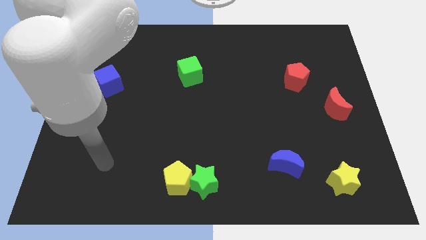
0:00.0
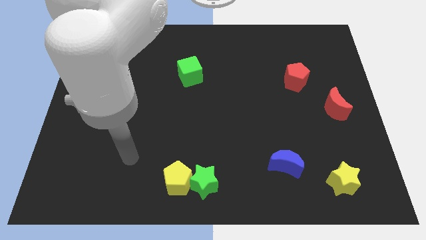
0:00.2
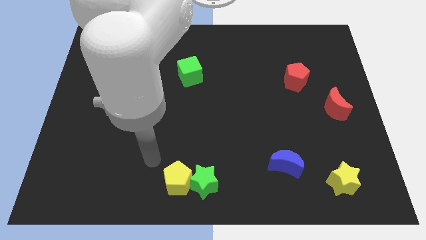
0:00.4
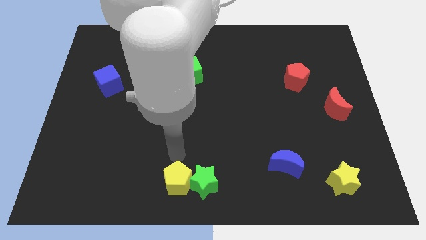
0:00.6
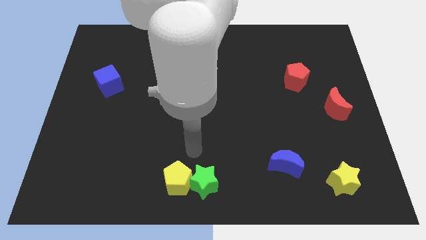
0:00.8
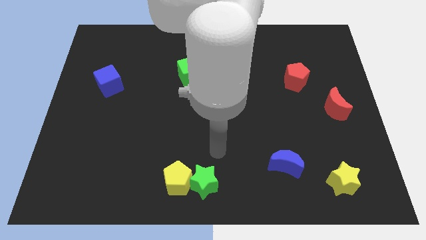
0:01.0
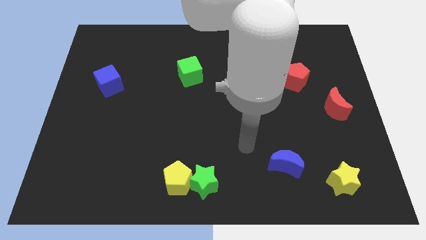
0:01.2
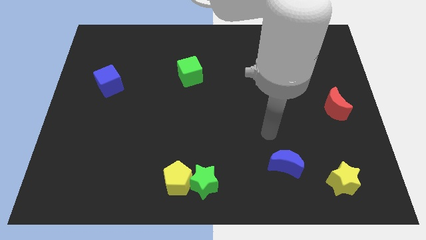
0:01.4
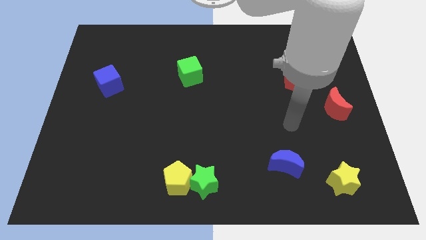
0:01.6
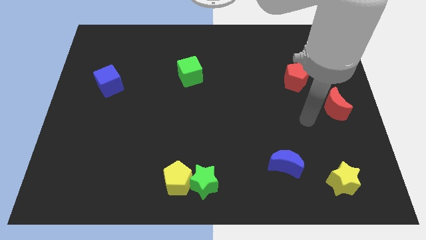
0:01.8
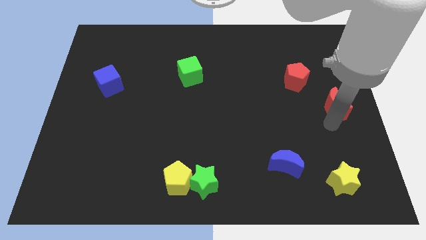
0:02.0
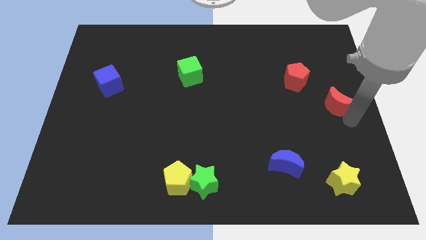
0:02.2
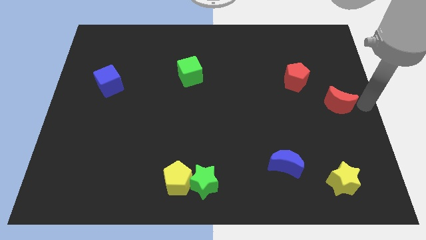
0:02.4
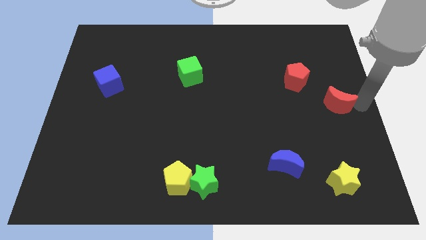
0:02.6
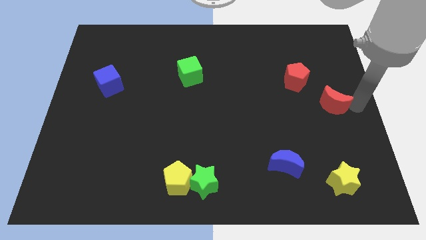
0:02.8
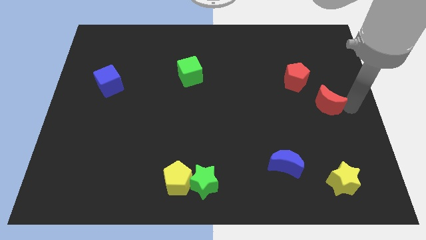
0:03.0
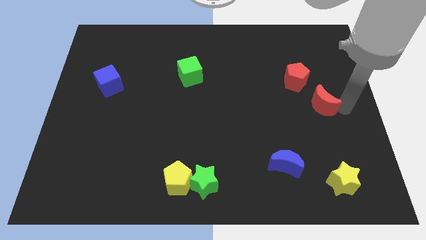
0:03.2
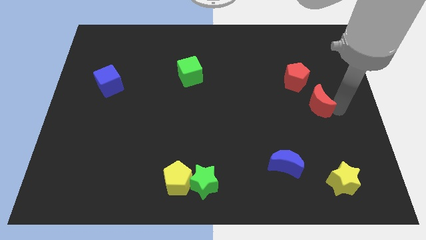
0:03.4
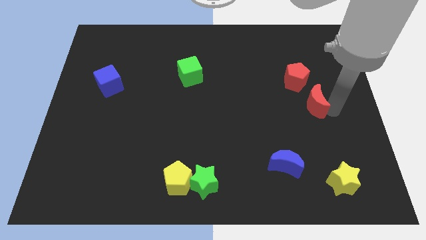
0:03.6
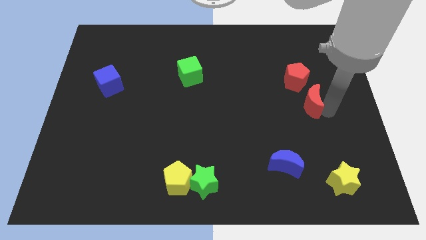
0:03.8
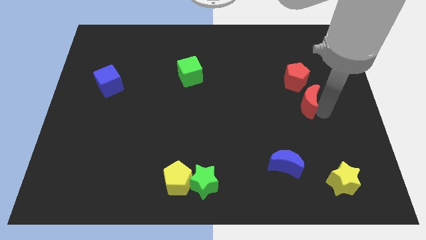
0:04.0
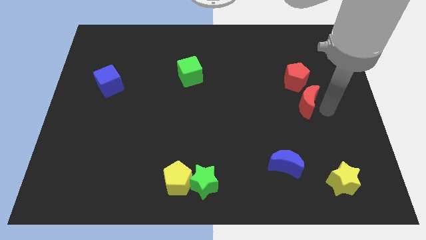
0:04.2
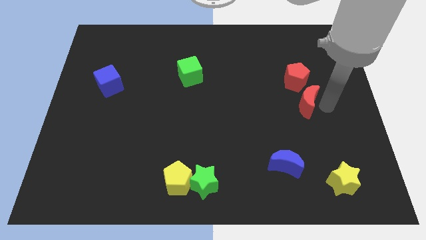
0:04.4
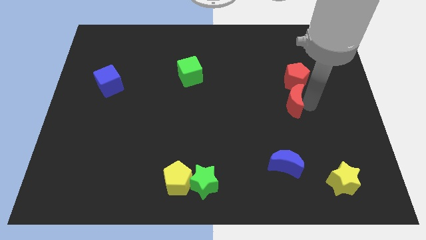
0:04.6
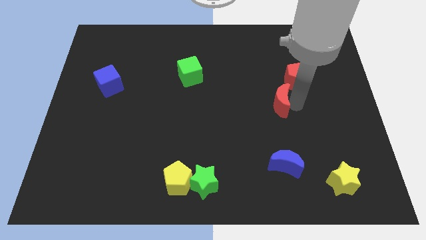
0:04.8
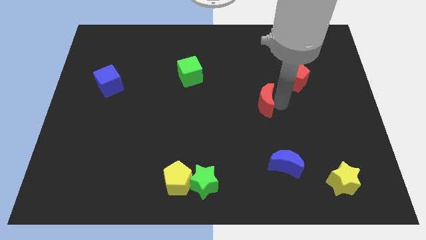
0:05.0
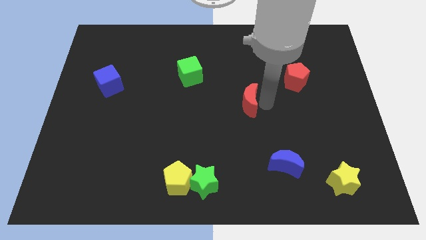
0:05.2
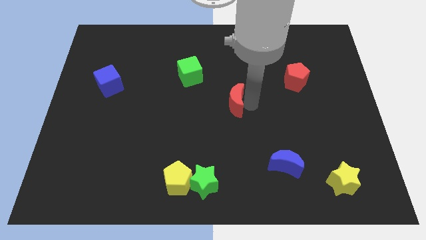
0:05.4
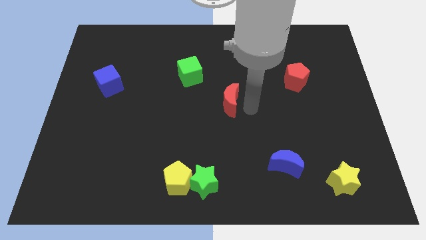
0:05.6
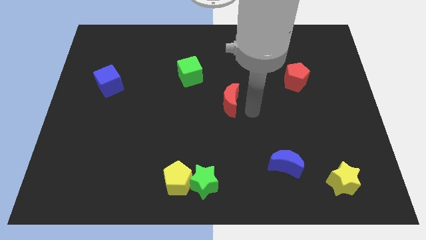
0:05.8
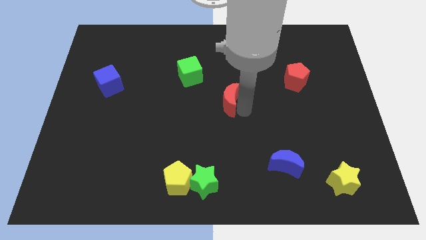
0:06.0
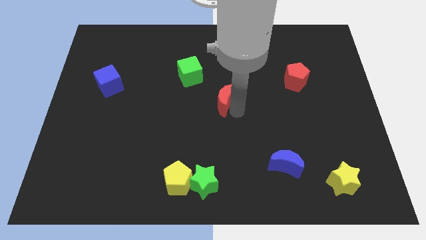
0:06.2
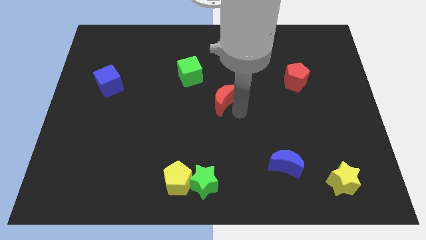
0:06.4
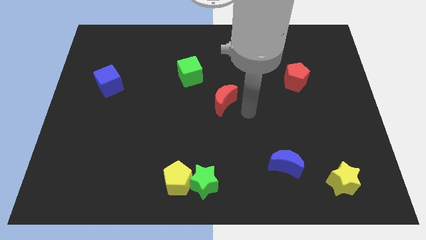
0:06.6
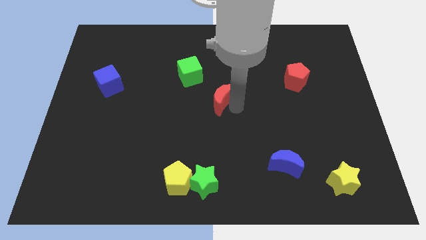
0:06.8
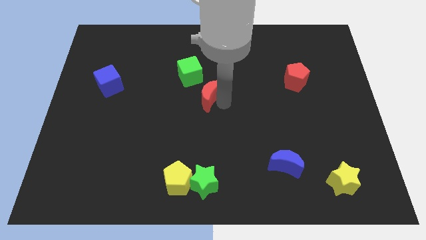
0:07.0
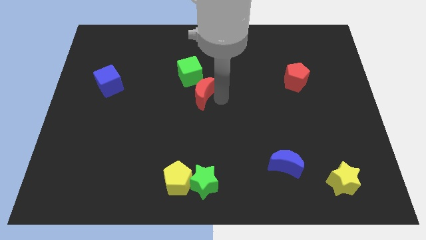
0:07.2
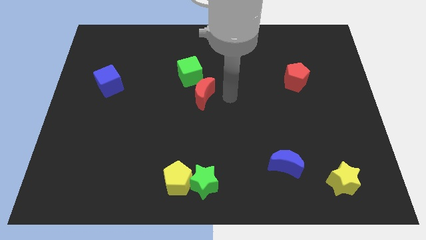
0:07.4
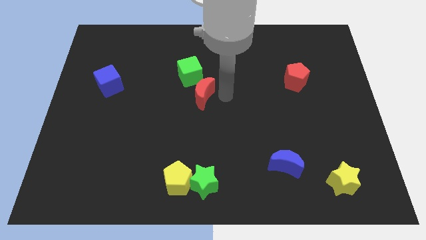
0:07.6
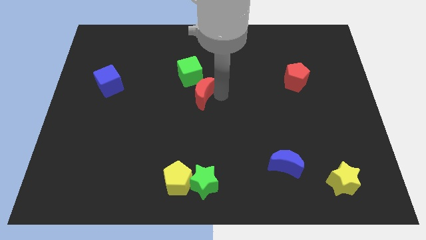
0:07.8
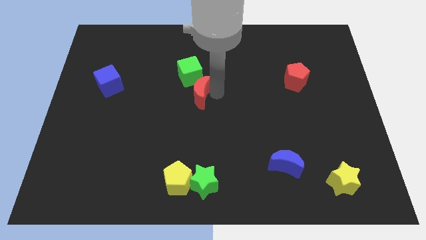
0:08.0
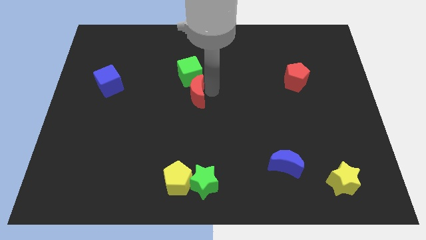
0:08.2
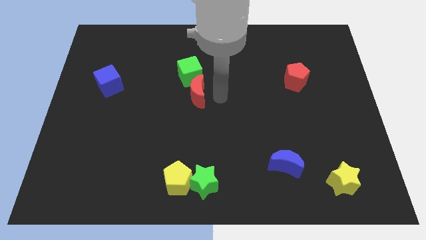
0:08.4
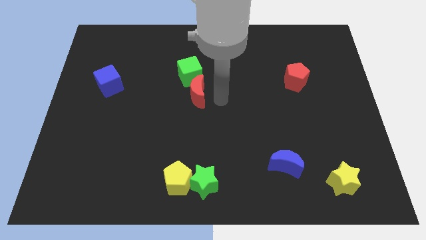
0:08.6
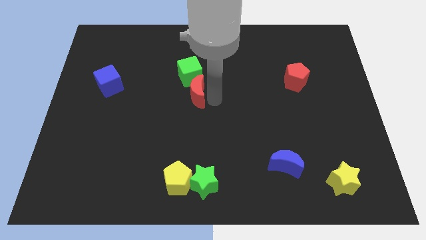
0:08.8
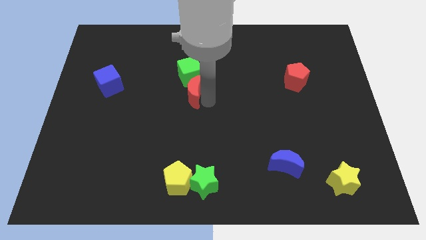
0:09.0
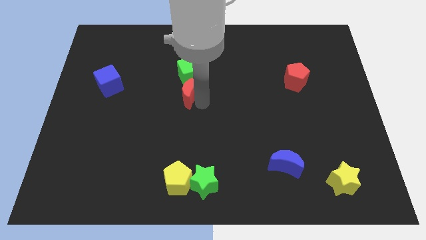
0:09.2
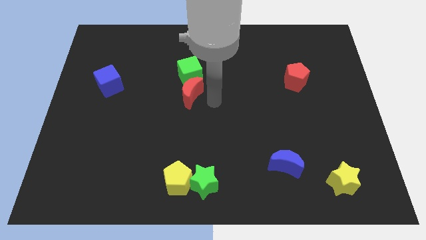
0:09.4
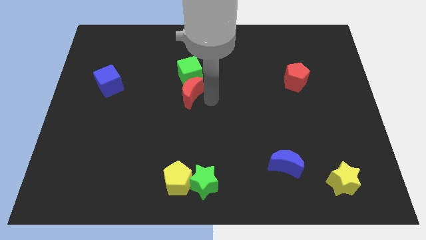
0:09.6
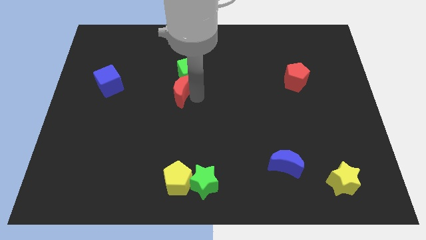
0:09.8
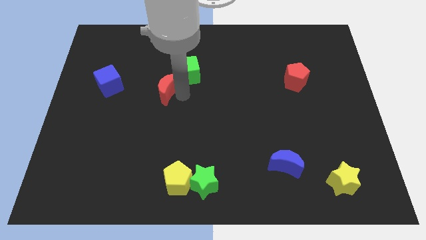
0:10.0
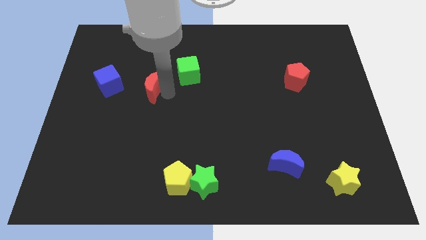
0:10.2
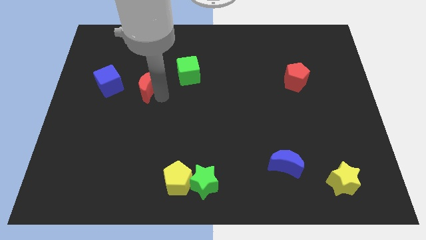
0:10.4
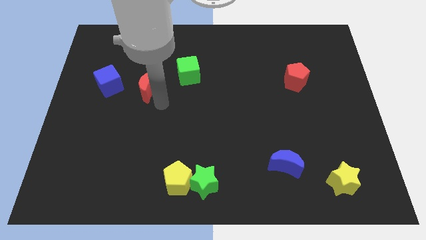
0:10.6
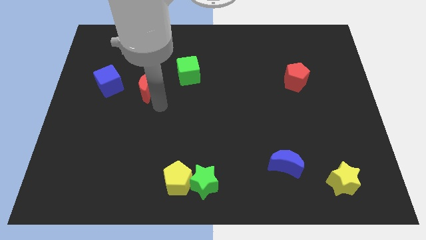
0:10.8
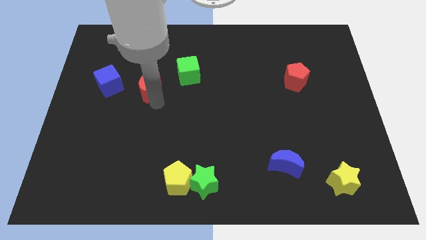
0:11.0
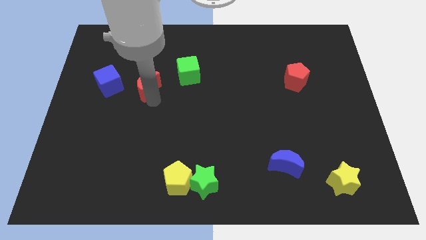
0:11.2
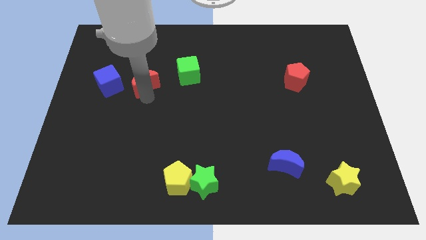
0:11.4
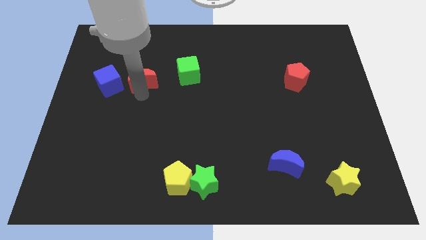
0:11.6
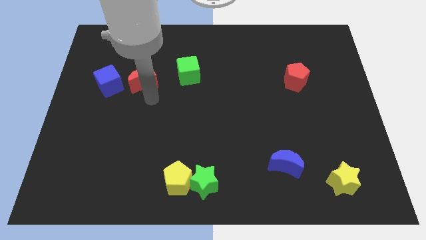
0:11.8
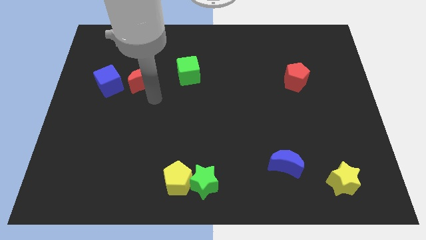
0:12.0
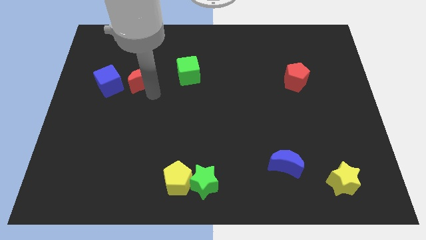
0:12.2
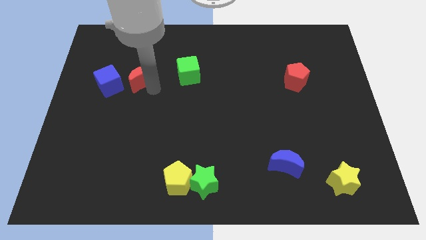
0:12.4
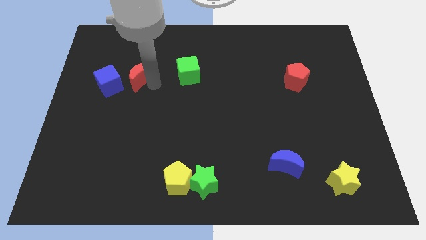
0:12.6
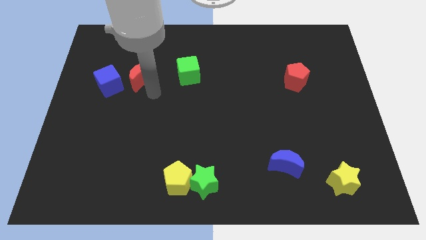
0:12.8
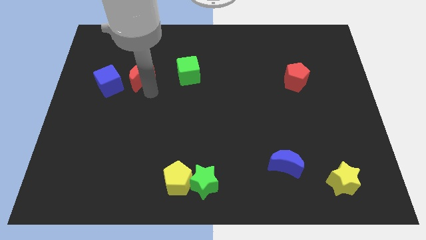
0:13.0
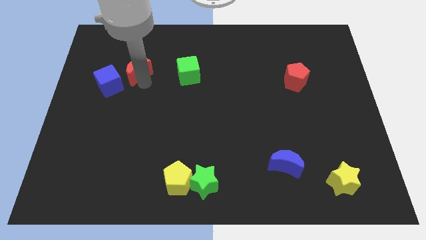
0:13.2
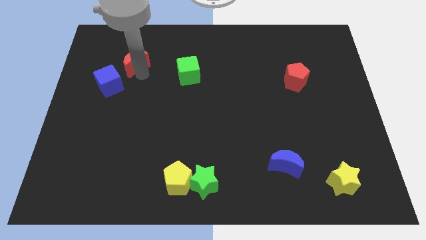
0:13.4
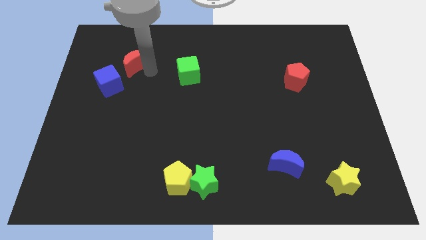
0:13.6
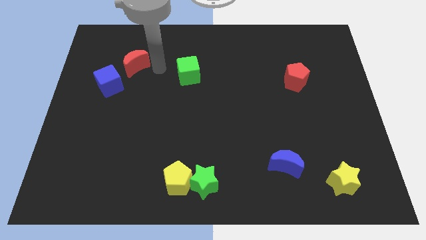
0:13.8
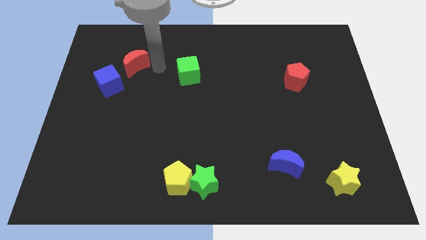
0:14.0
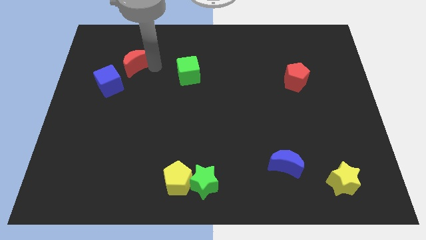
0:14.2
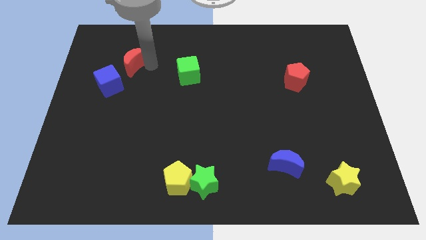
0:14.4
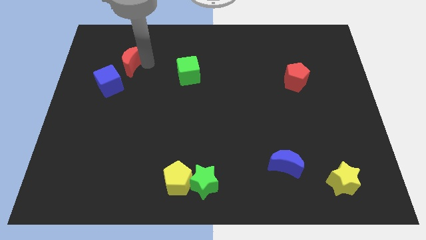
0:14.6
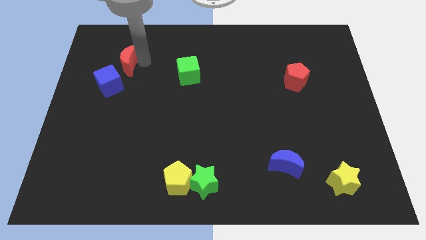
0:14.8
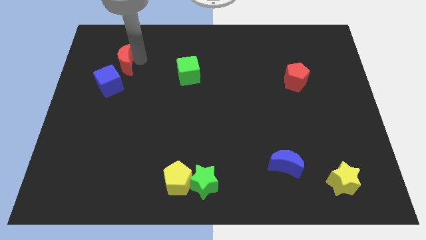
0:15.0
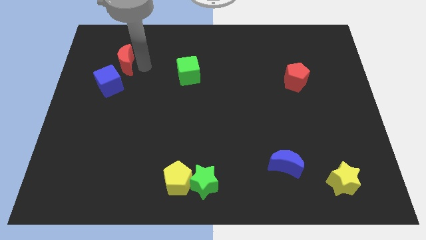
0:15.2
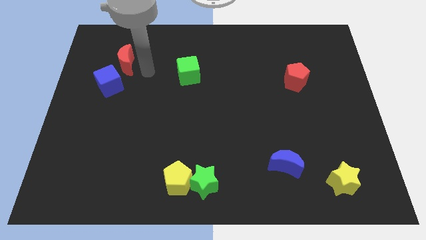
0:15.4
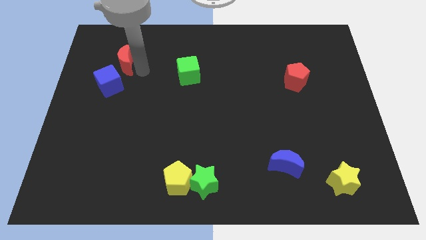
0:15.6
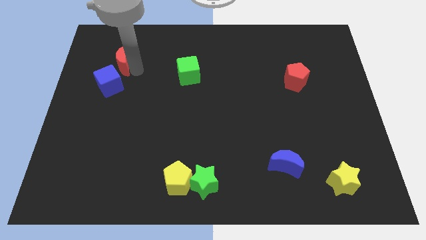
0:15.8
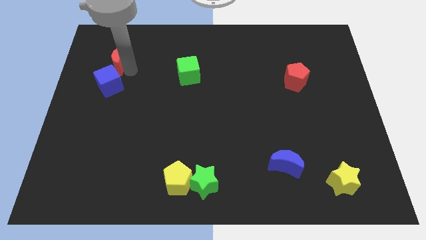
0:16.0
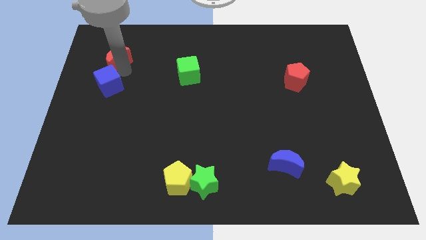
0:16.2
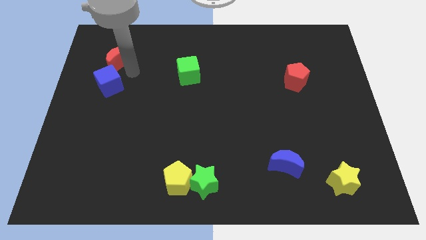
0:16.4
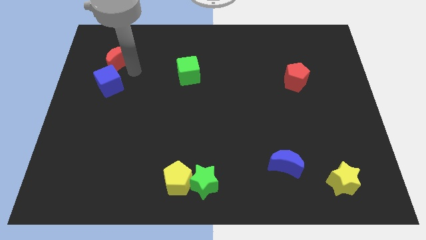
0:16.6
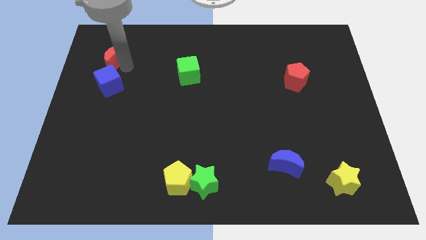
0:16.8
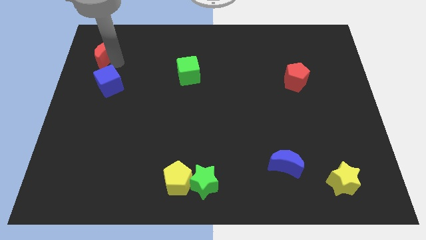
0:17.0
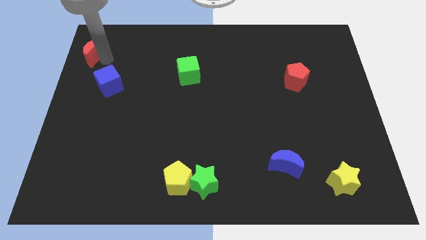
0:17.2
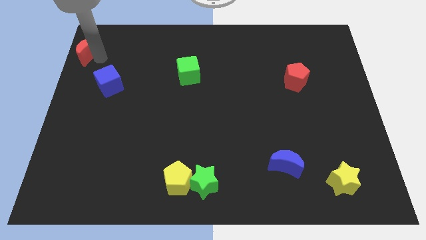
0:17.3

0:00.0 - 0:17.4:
put the red moon to the top left of the board
